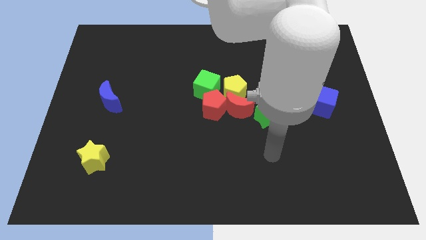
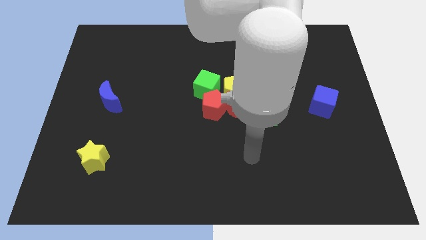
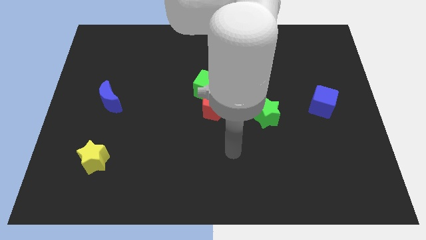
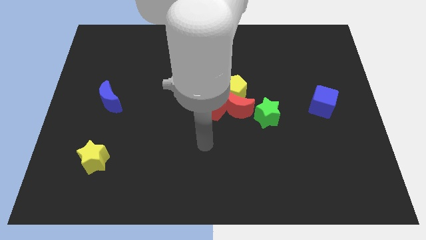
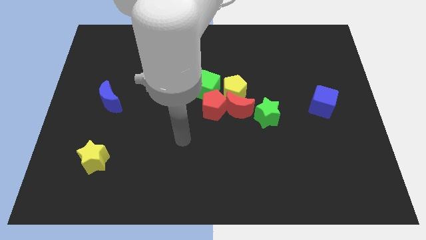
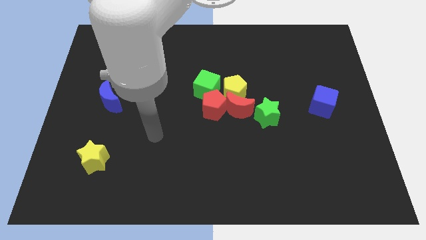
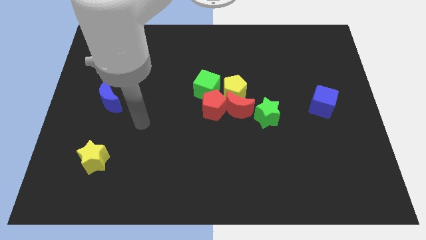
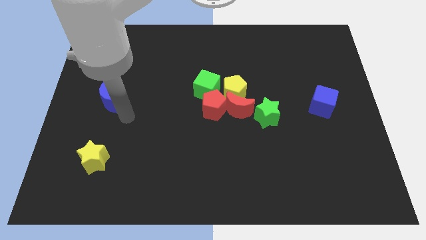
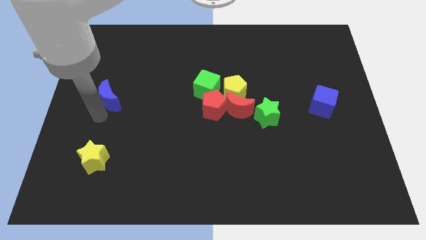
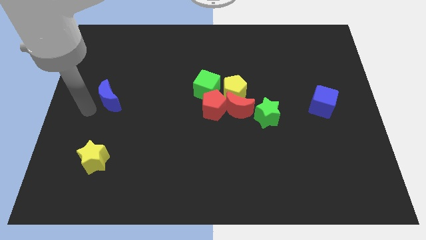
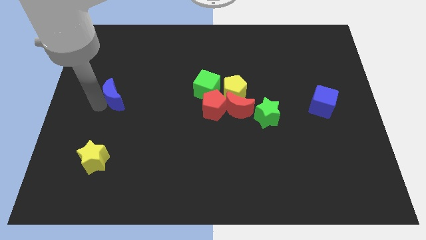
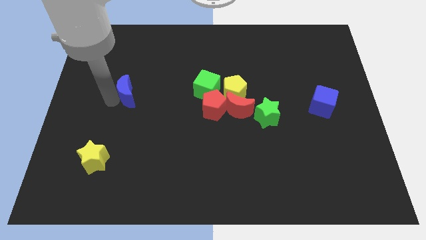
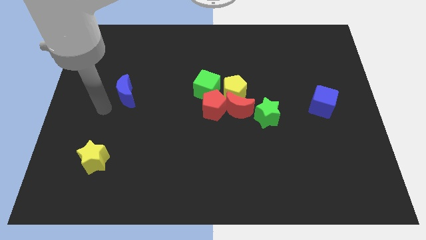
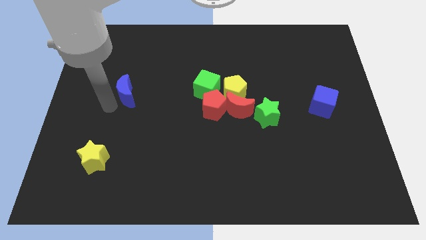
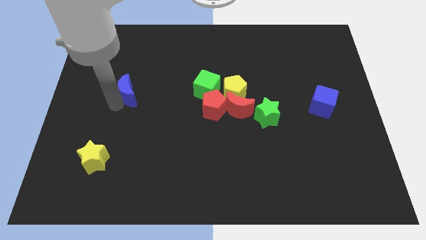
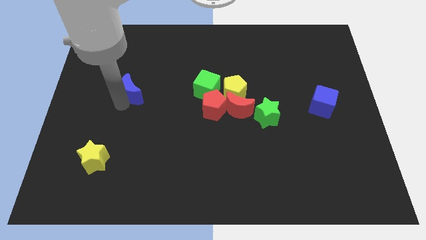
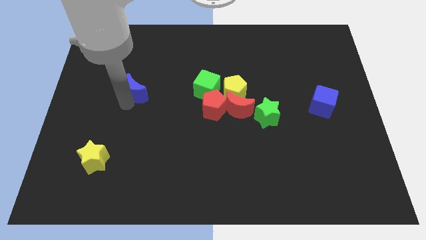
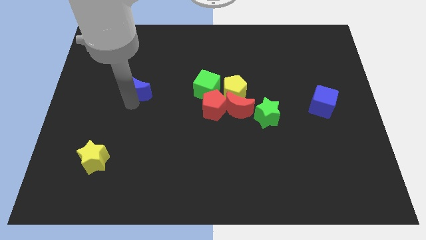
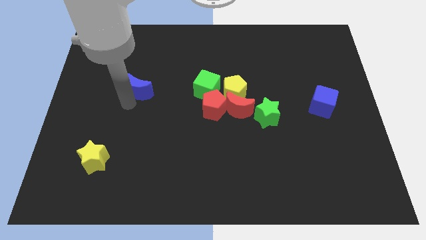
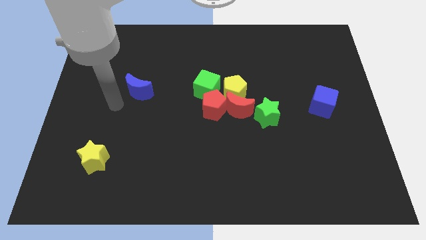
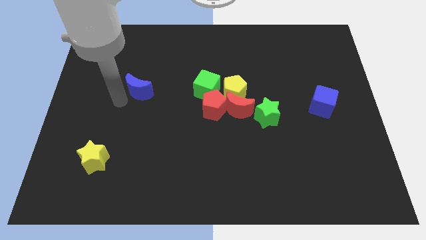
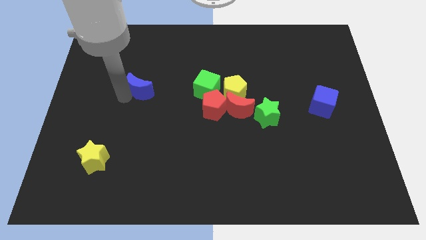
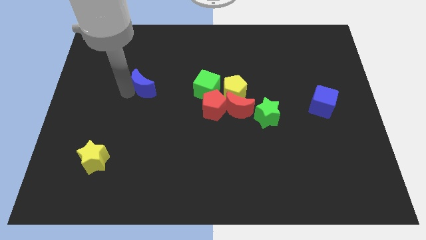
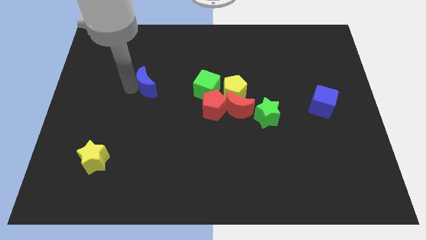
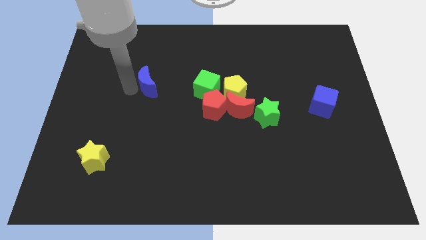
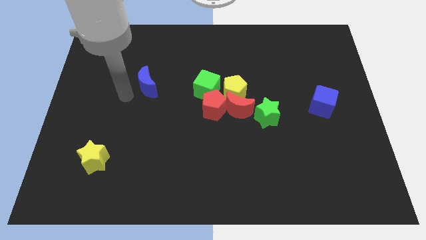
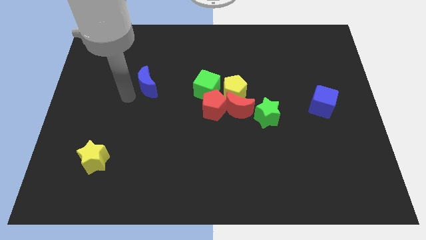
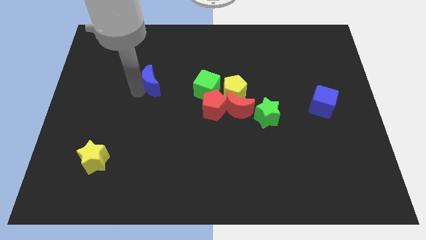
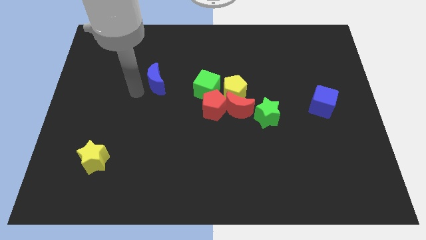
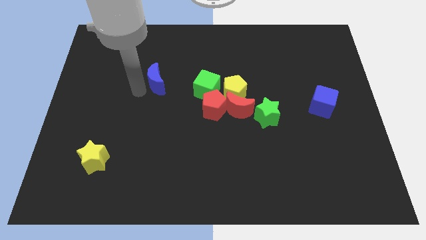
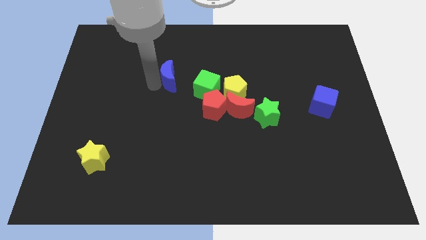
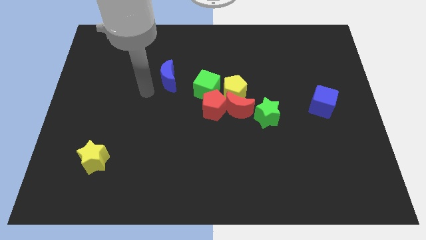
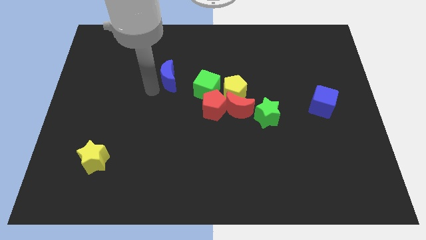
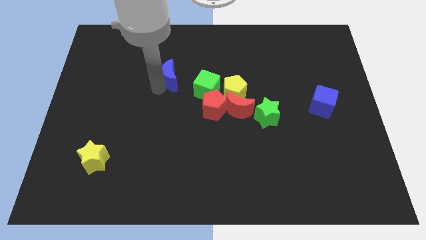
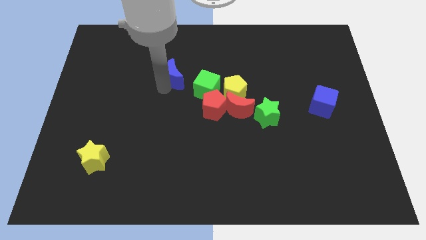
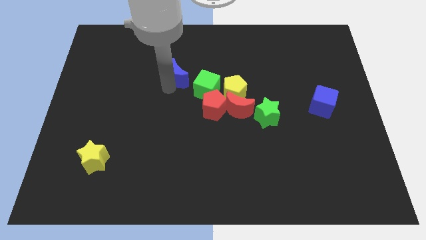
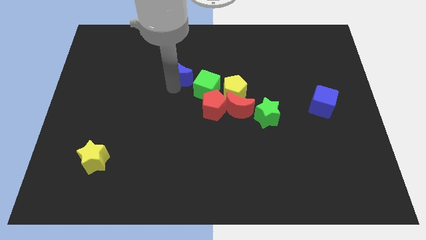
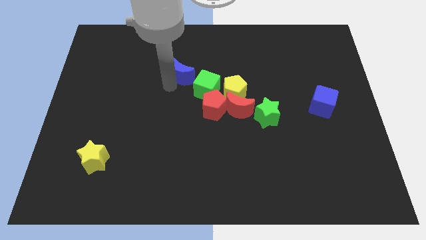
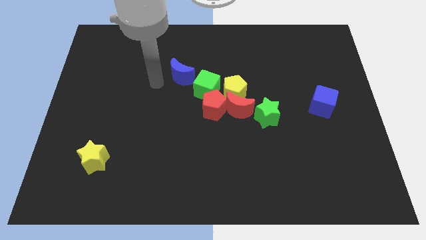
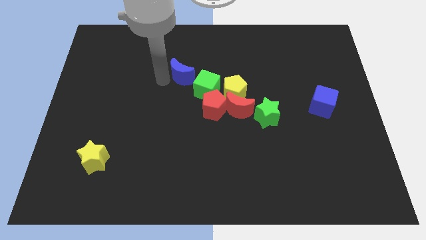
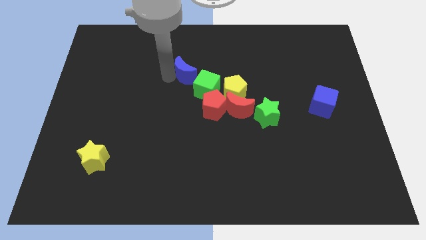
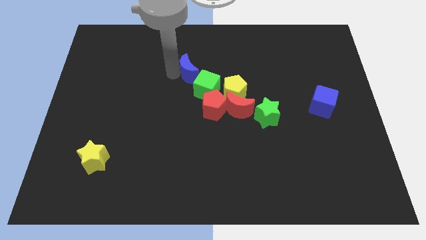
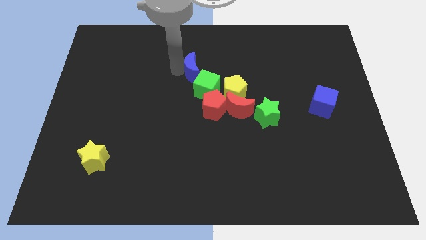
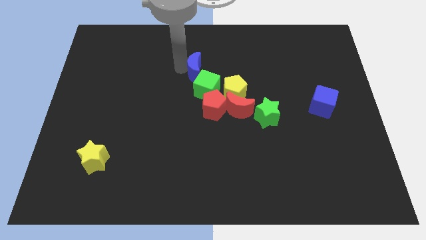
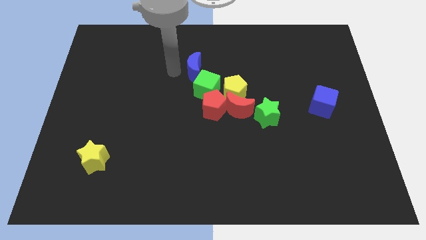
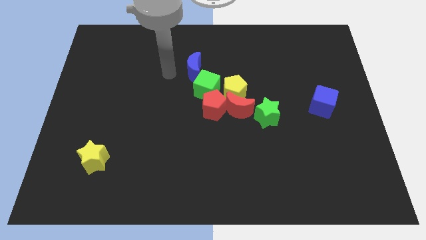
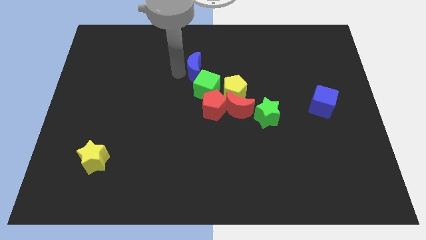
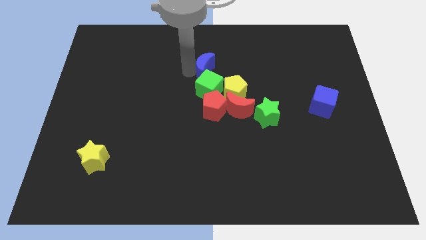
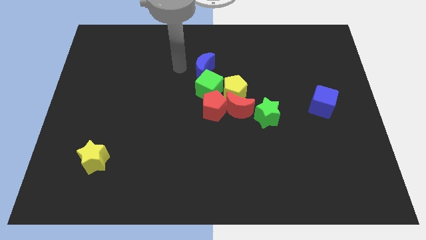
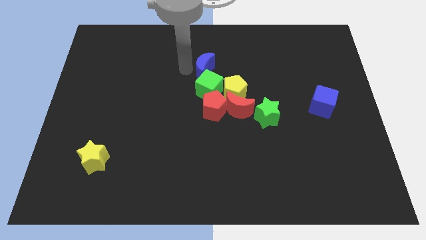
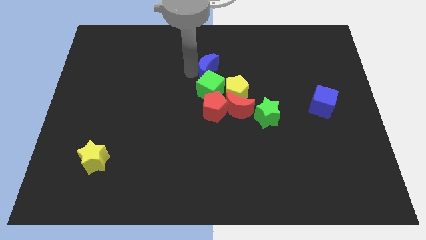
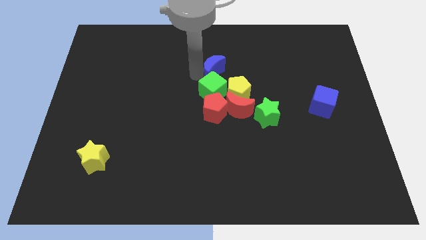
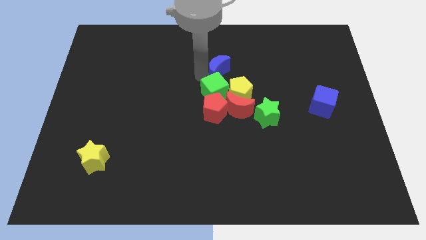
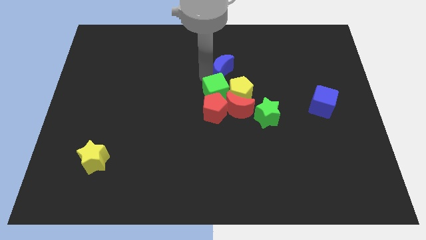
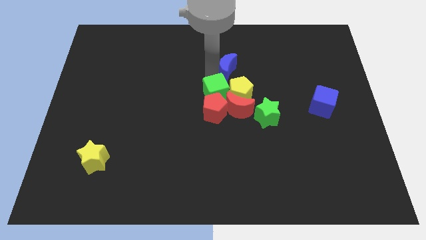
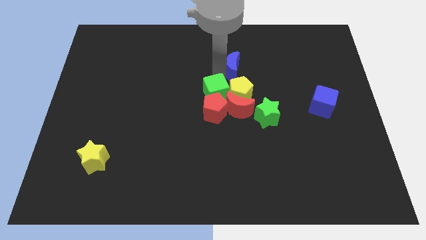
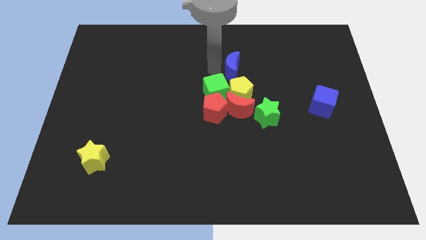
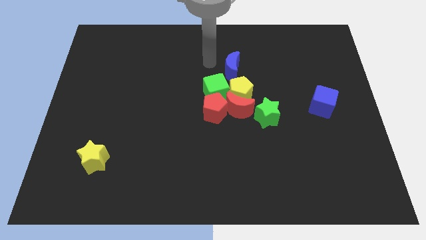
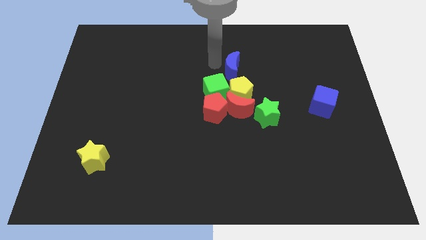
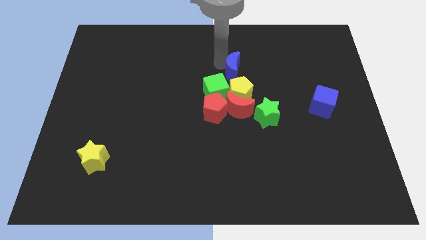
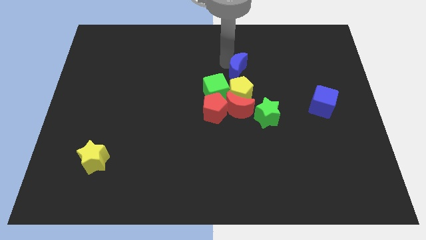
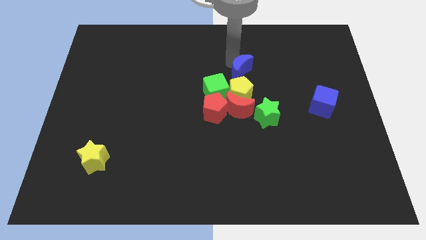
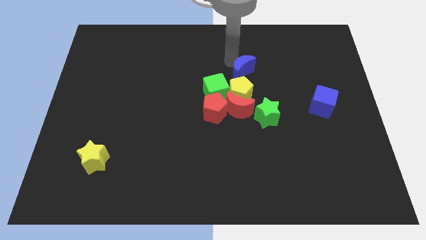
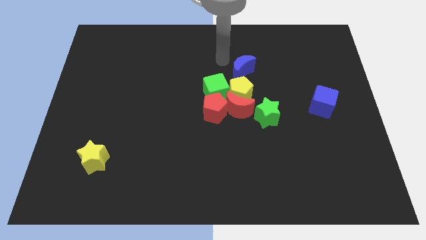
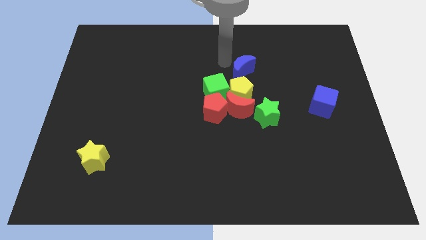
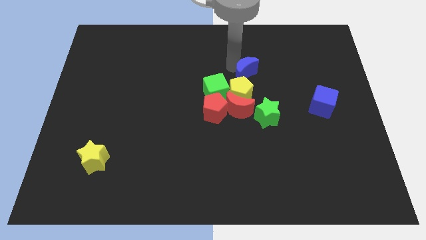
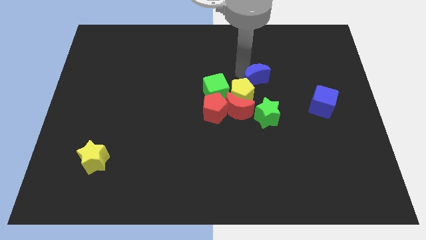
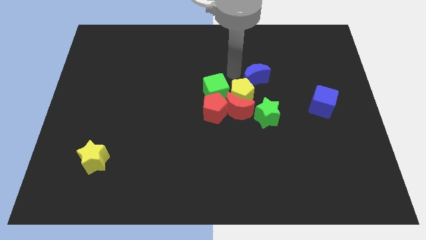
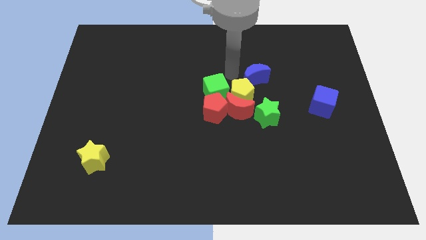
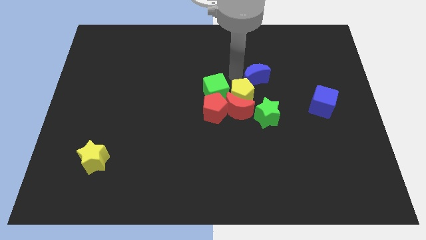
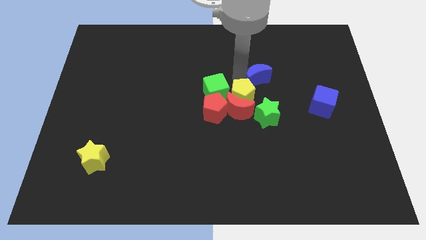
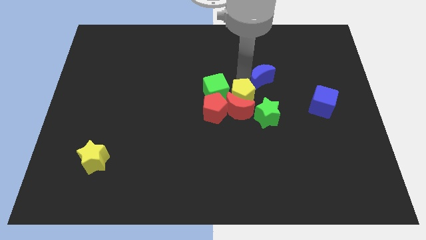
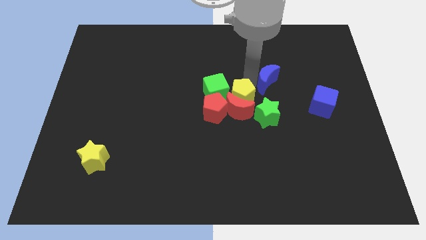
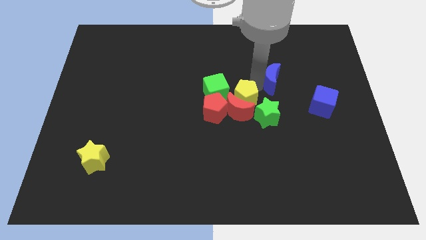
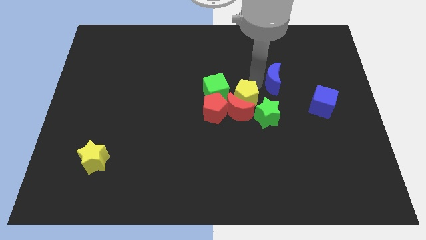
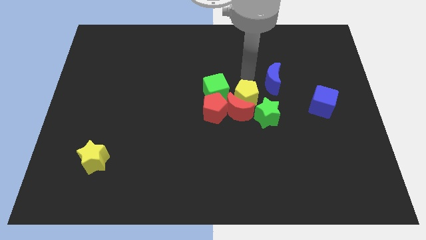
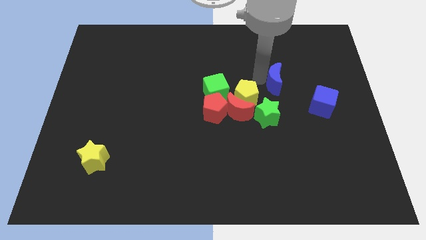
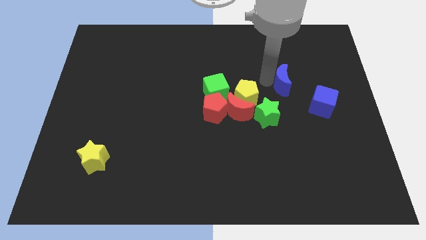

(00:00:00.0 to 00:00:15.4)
move the blue moon diagonally up and to the left of the blue cube
